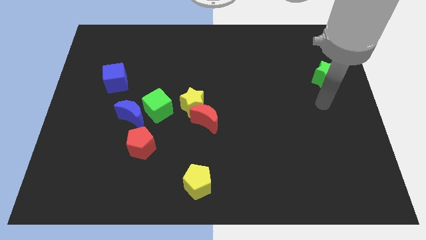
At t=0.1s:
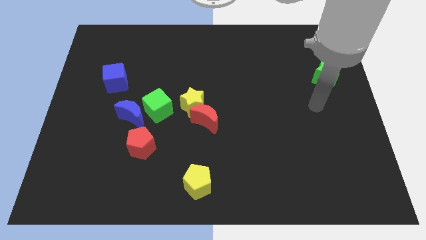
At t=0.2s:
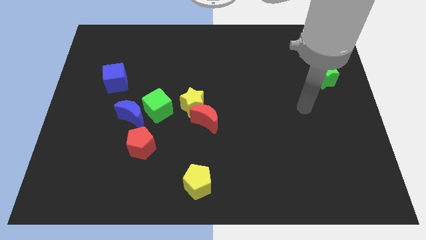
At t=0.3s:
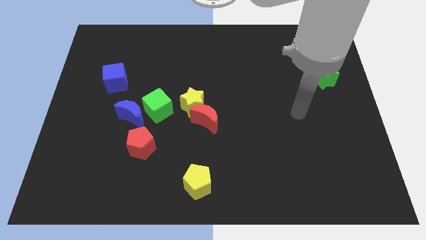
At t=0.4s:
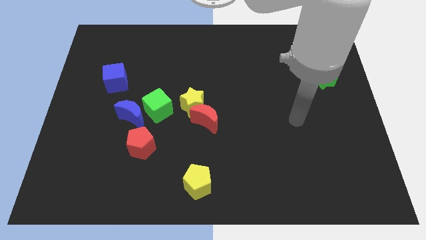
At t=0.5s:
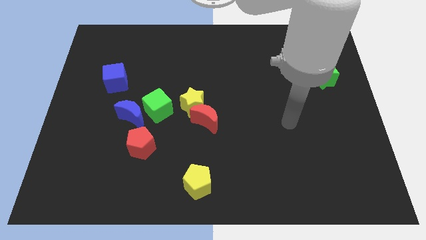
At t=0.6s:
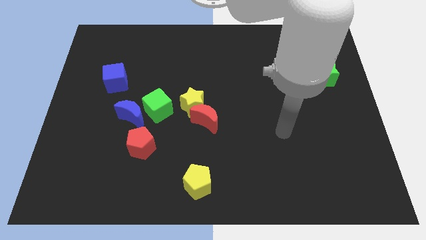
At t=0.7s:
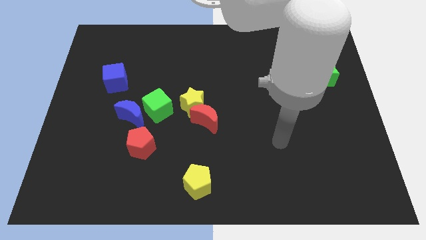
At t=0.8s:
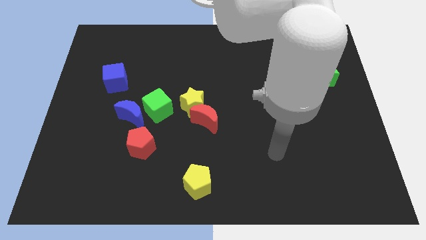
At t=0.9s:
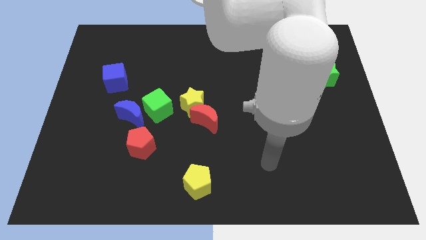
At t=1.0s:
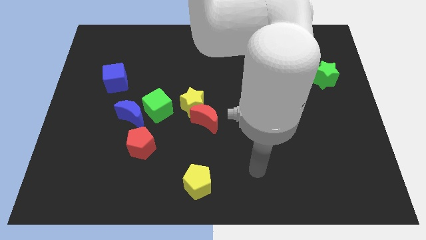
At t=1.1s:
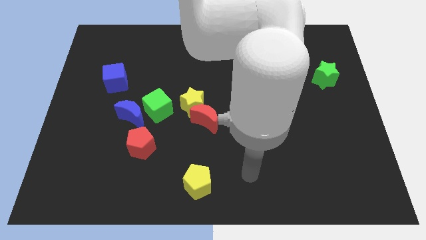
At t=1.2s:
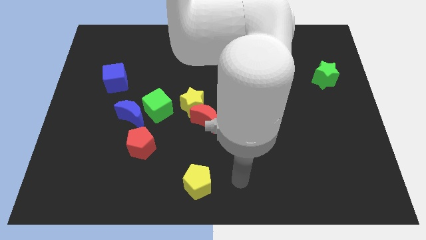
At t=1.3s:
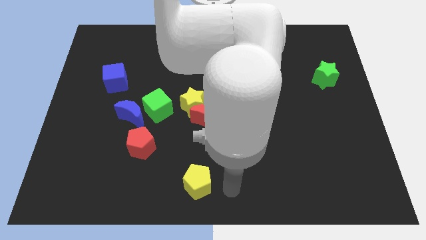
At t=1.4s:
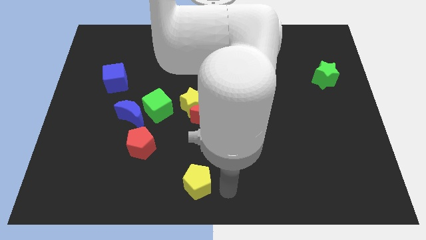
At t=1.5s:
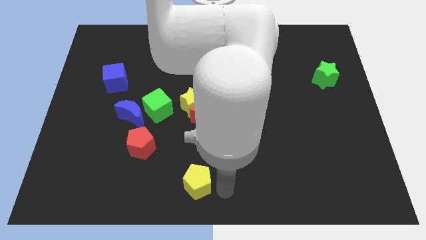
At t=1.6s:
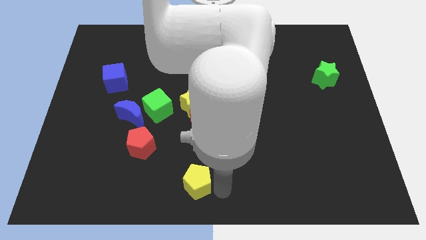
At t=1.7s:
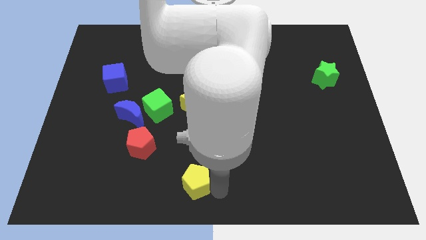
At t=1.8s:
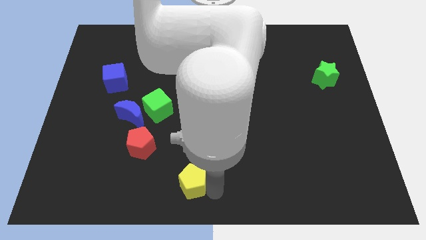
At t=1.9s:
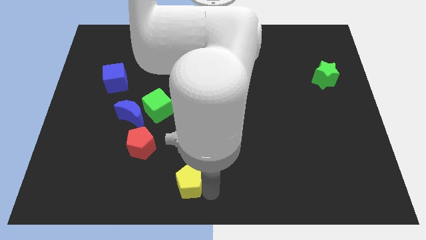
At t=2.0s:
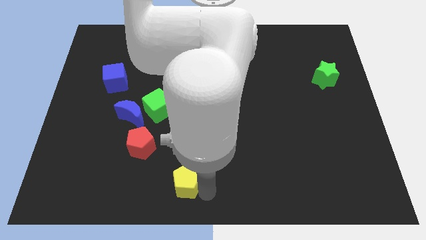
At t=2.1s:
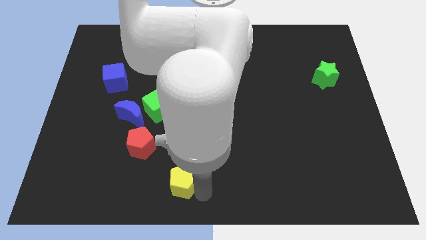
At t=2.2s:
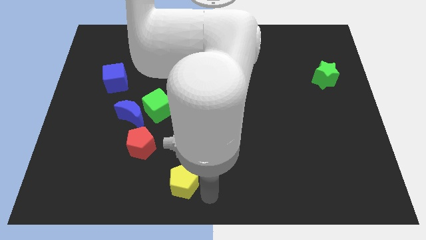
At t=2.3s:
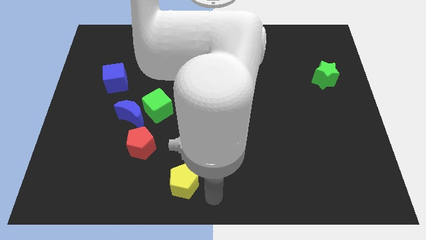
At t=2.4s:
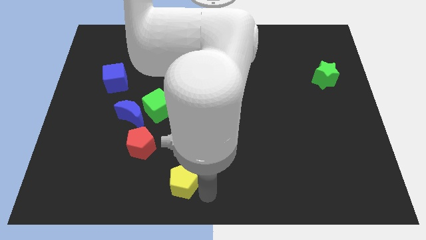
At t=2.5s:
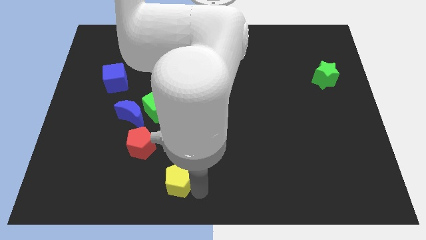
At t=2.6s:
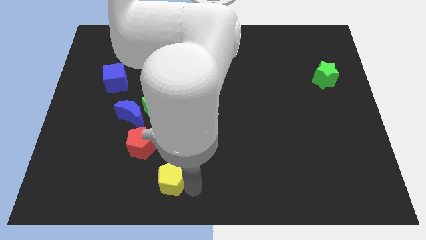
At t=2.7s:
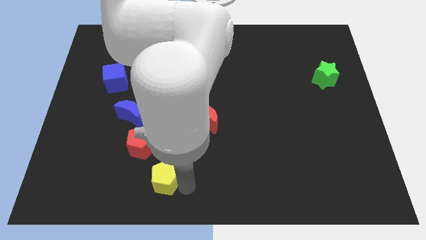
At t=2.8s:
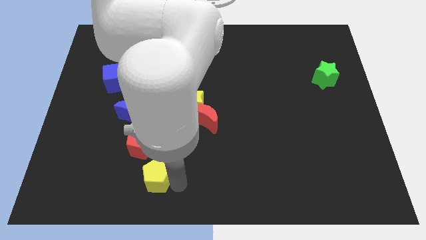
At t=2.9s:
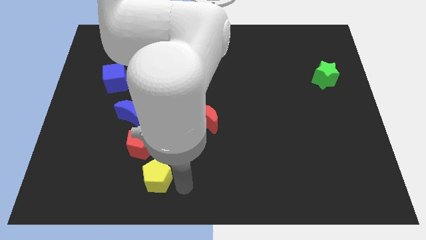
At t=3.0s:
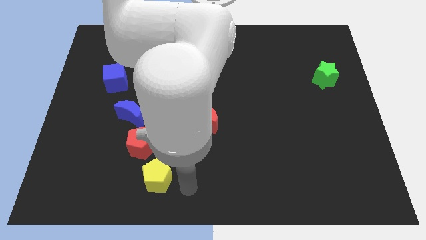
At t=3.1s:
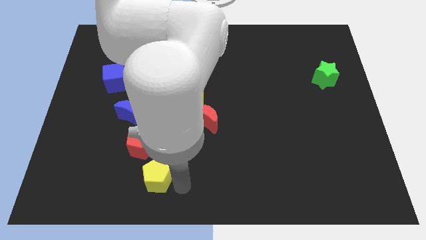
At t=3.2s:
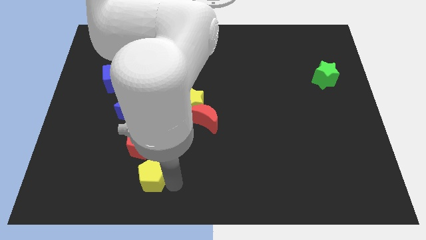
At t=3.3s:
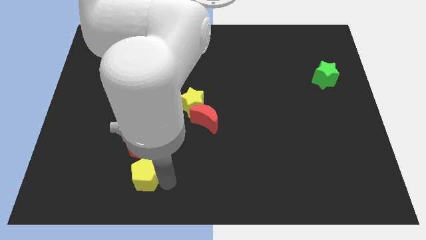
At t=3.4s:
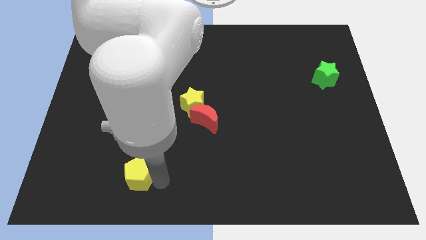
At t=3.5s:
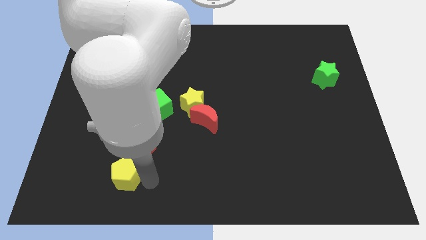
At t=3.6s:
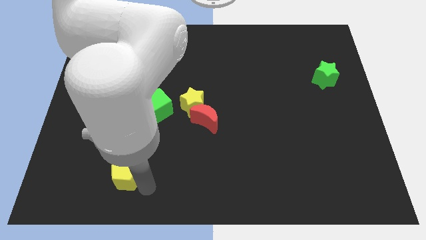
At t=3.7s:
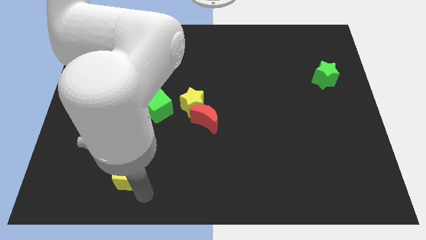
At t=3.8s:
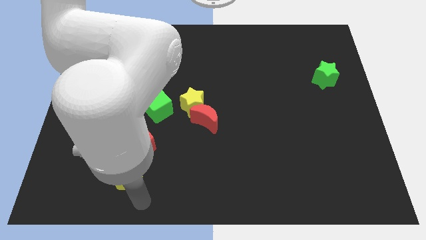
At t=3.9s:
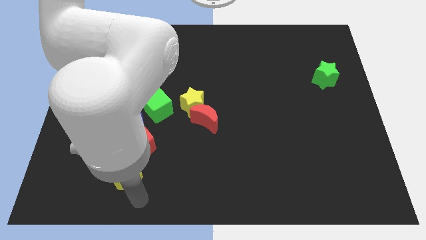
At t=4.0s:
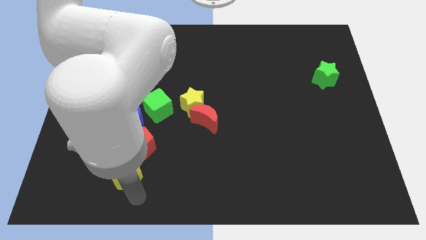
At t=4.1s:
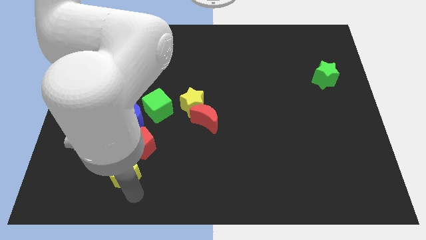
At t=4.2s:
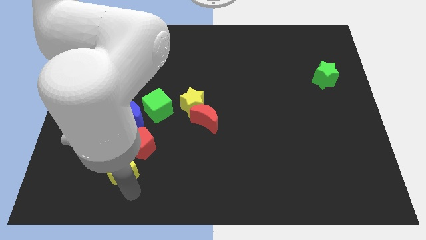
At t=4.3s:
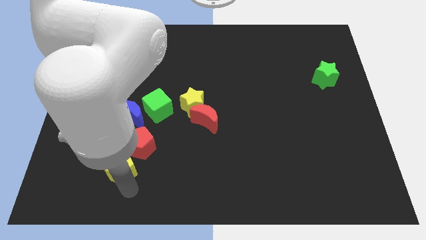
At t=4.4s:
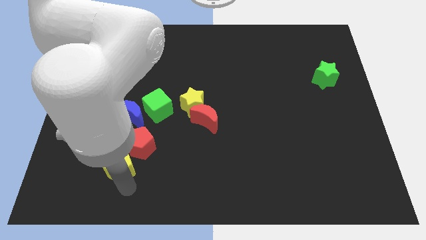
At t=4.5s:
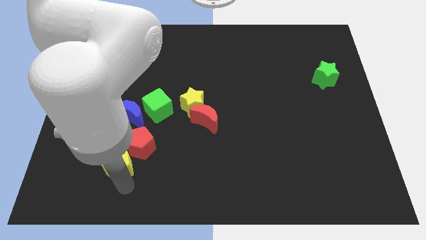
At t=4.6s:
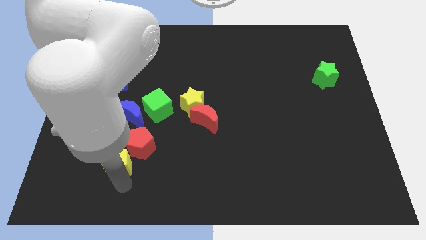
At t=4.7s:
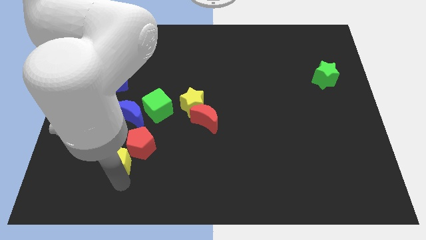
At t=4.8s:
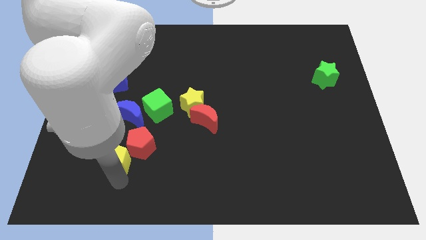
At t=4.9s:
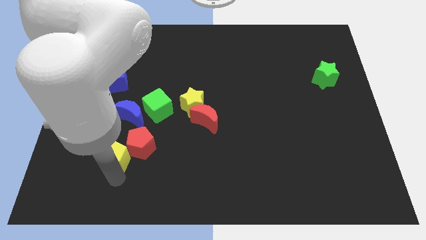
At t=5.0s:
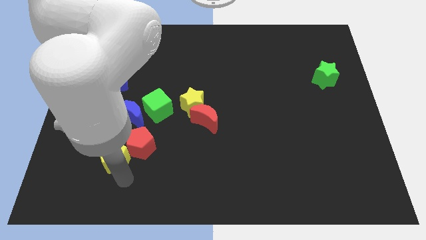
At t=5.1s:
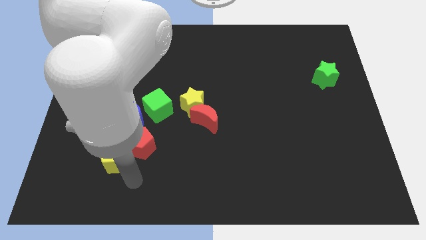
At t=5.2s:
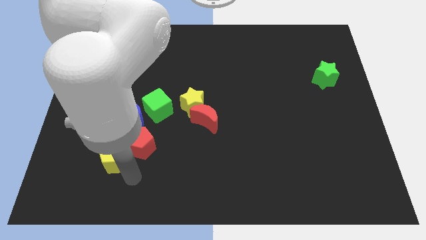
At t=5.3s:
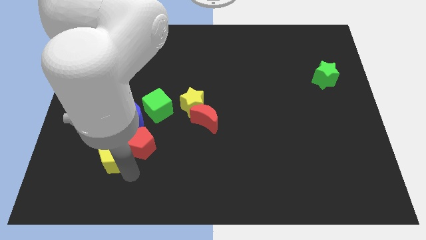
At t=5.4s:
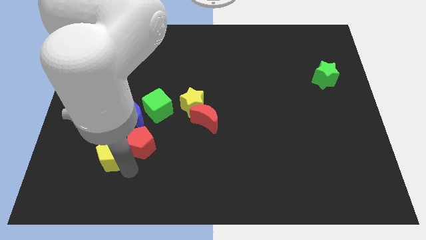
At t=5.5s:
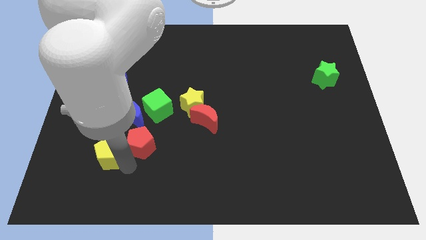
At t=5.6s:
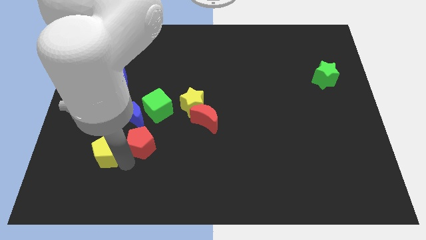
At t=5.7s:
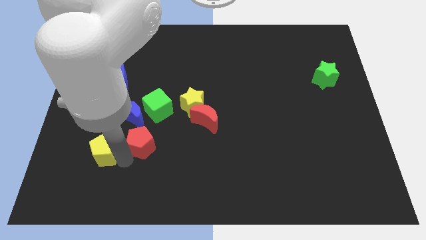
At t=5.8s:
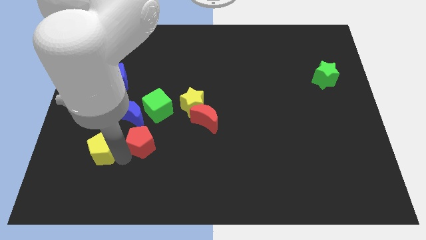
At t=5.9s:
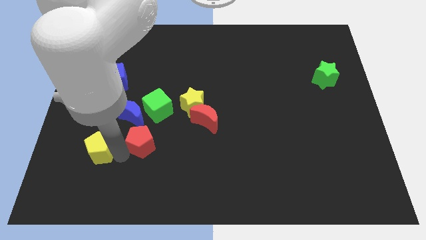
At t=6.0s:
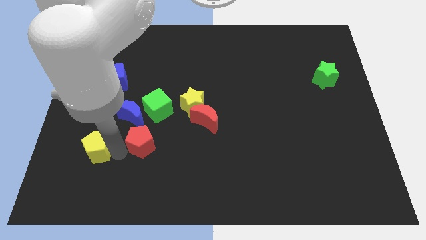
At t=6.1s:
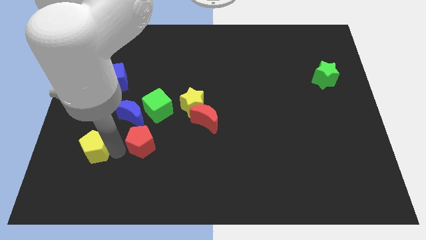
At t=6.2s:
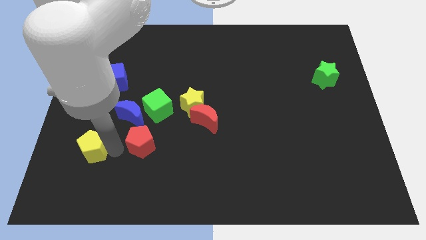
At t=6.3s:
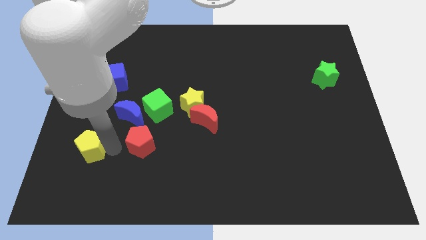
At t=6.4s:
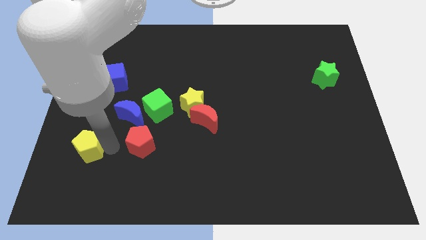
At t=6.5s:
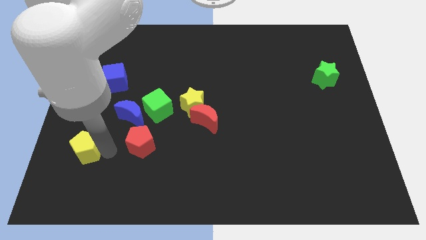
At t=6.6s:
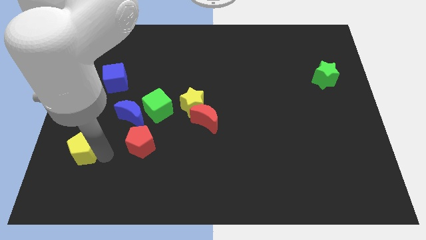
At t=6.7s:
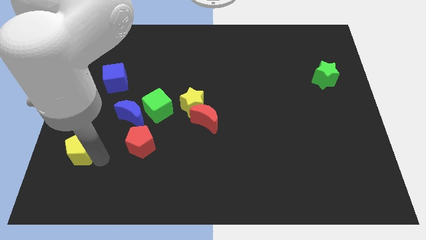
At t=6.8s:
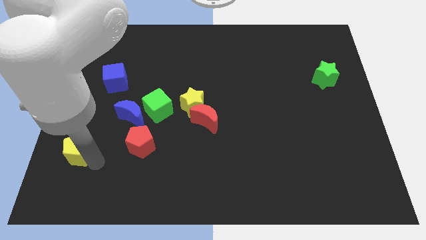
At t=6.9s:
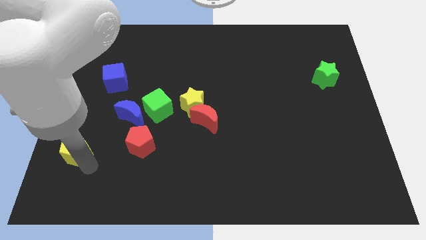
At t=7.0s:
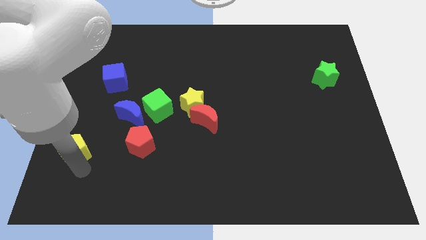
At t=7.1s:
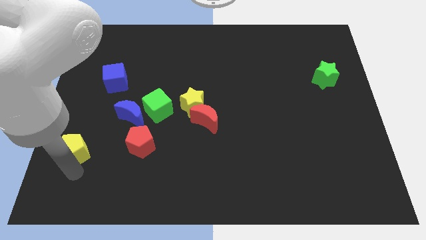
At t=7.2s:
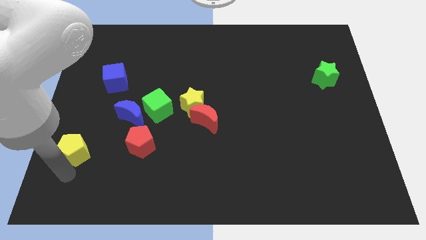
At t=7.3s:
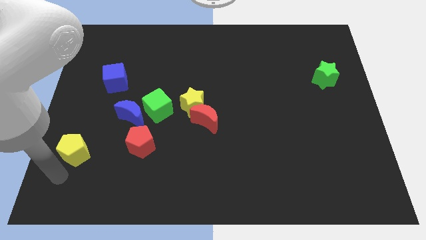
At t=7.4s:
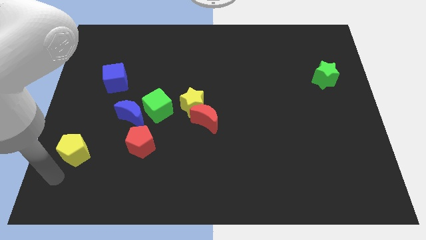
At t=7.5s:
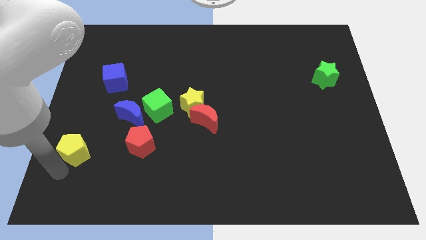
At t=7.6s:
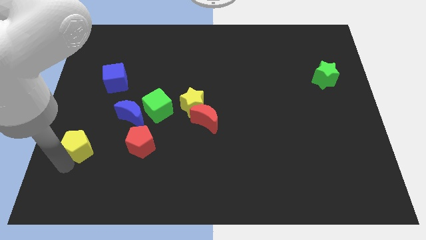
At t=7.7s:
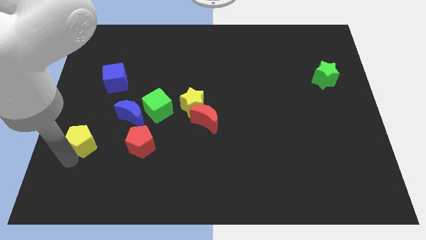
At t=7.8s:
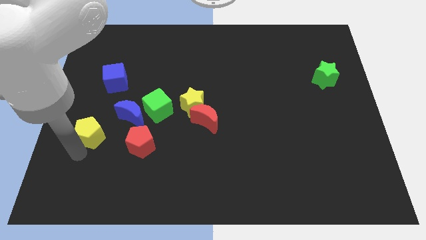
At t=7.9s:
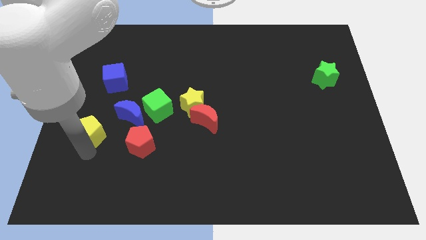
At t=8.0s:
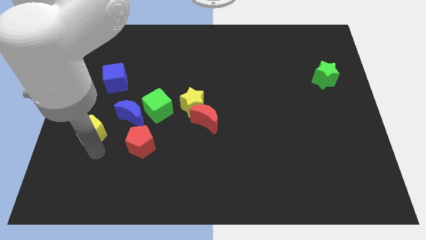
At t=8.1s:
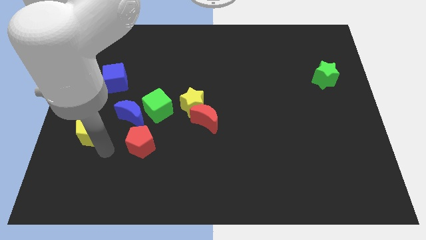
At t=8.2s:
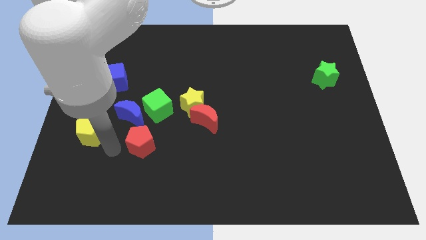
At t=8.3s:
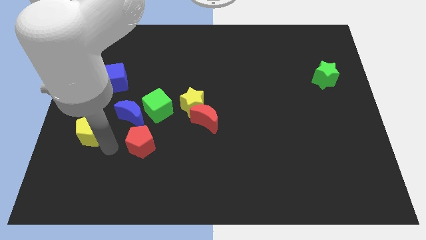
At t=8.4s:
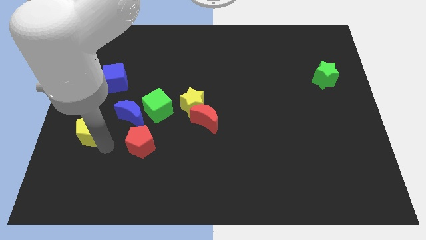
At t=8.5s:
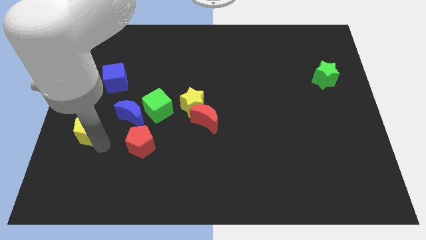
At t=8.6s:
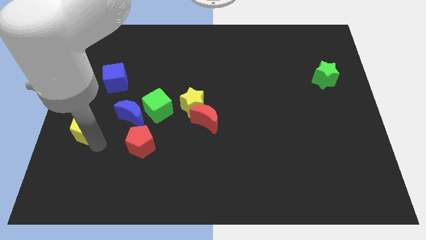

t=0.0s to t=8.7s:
put the yellow pentagon to the left side
